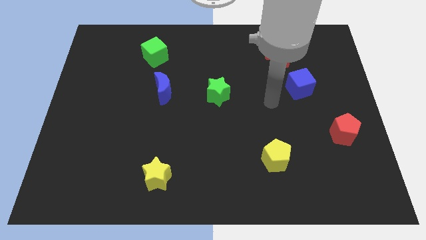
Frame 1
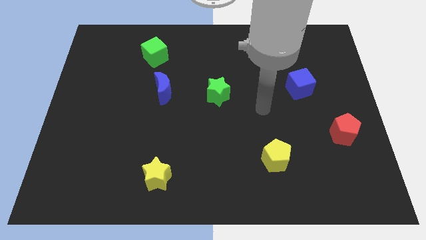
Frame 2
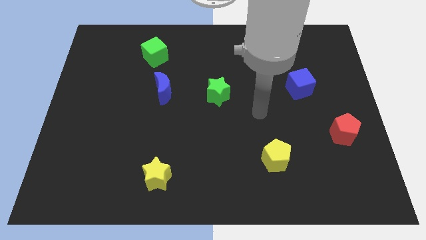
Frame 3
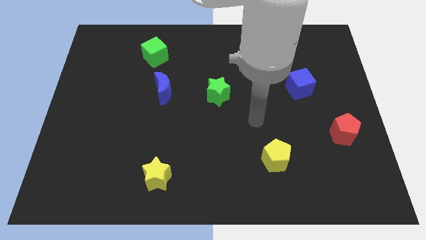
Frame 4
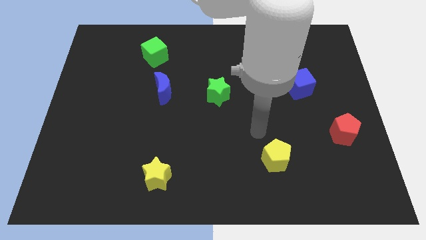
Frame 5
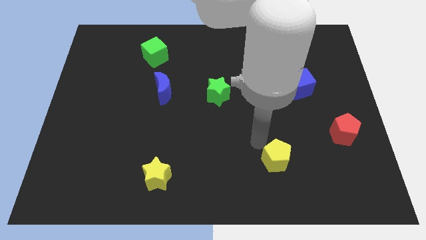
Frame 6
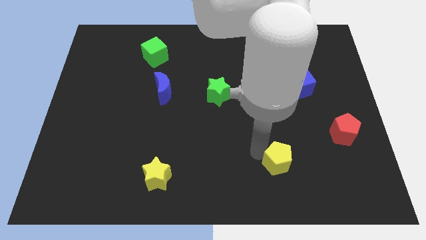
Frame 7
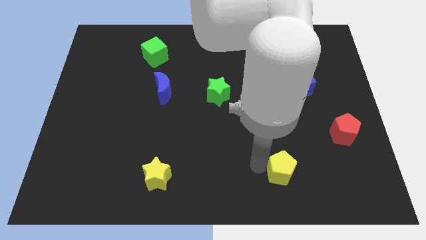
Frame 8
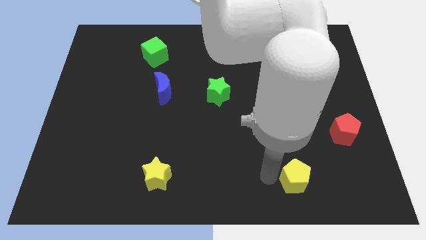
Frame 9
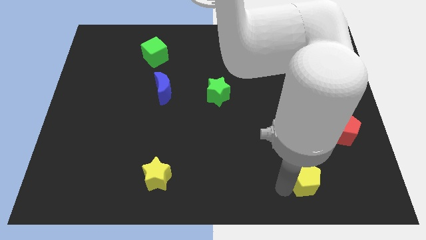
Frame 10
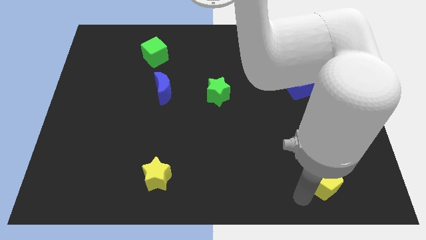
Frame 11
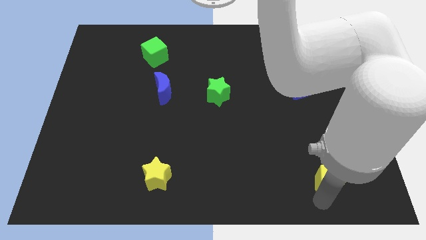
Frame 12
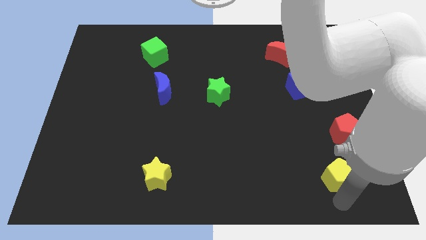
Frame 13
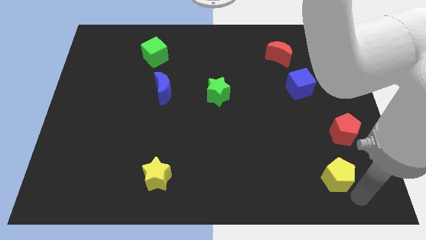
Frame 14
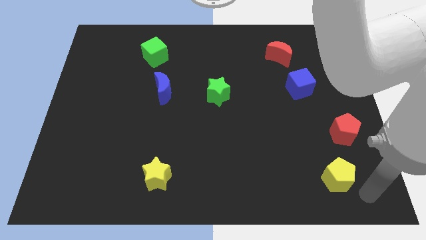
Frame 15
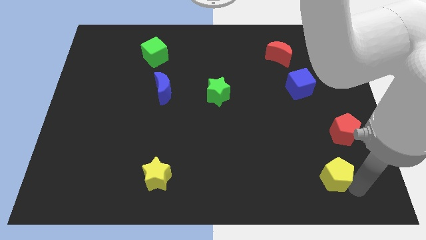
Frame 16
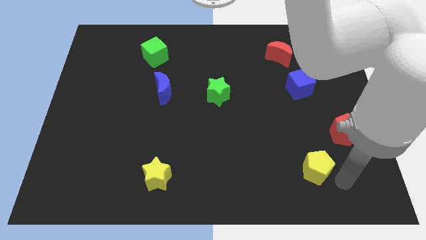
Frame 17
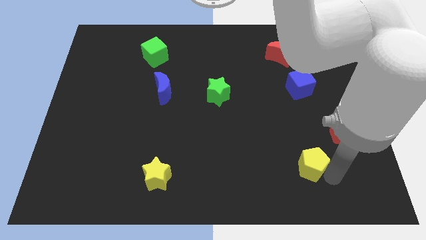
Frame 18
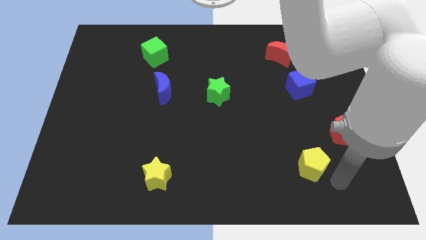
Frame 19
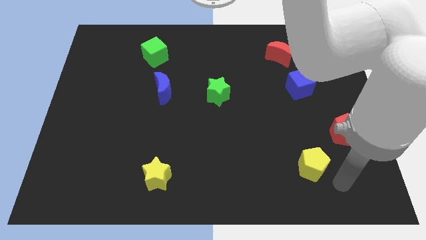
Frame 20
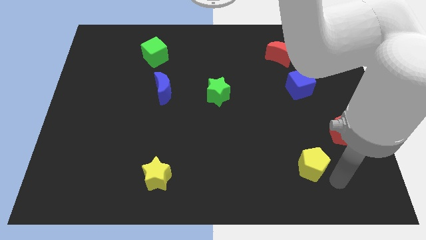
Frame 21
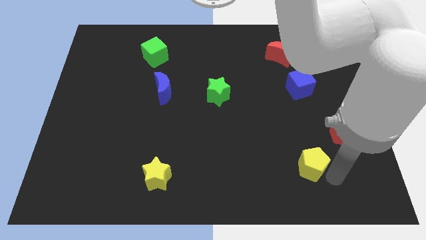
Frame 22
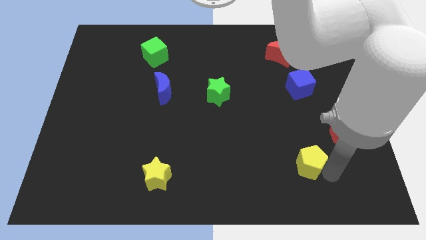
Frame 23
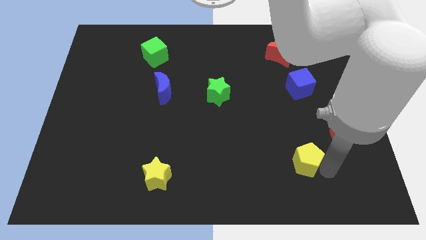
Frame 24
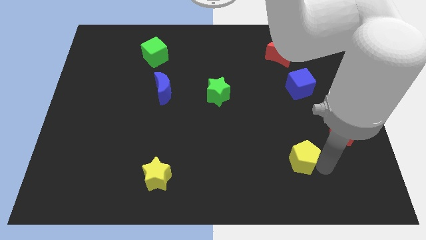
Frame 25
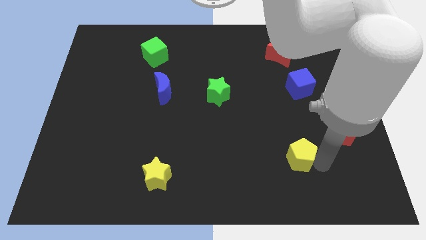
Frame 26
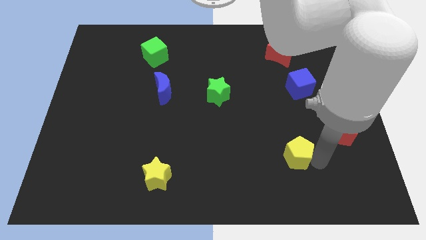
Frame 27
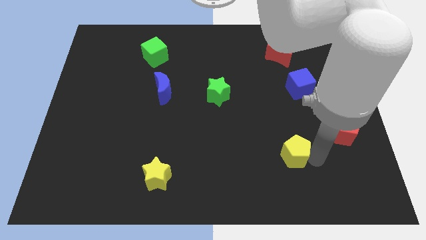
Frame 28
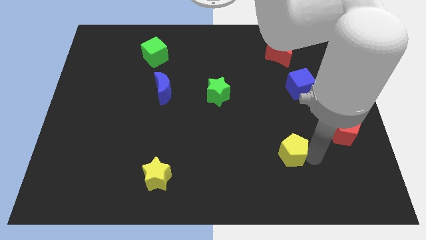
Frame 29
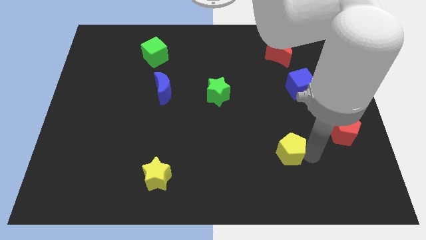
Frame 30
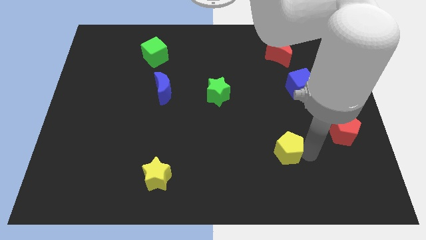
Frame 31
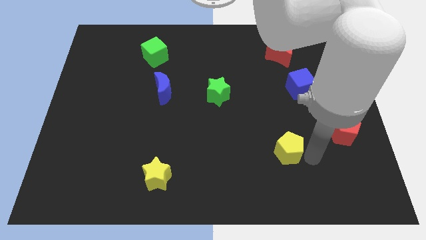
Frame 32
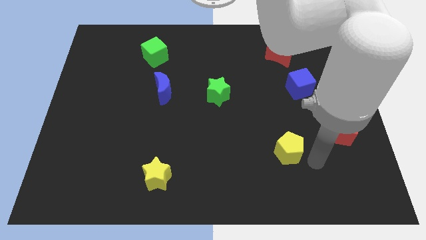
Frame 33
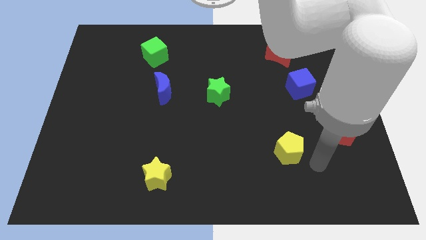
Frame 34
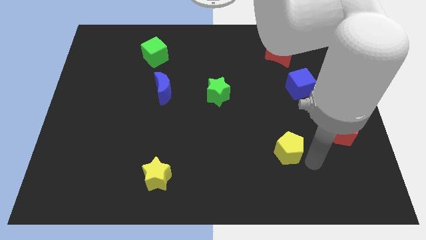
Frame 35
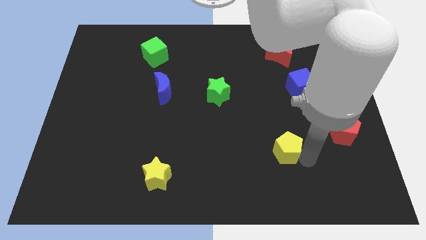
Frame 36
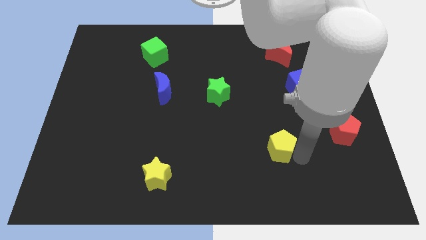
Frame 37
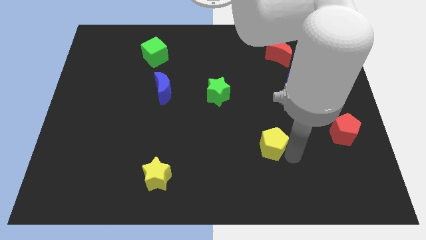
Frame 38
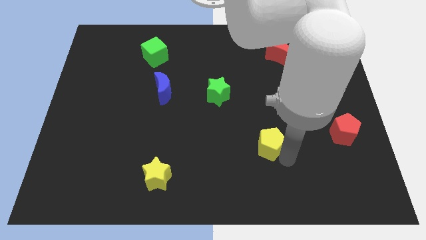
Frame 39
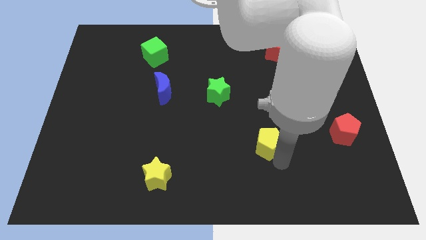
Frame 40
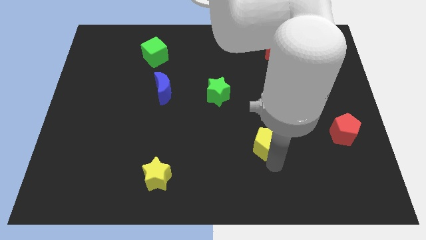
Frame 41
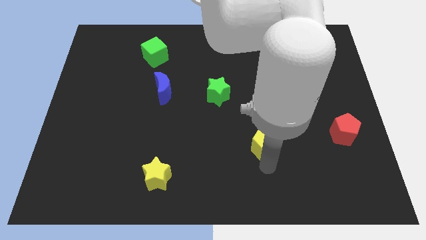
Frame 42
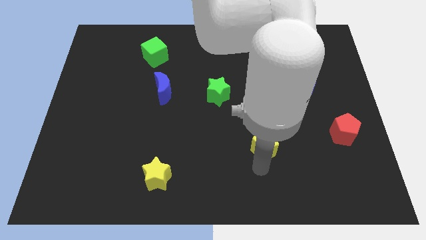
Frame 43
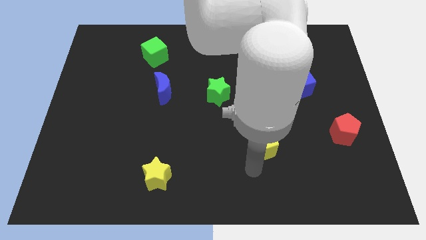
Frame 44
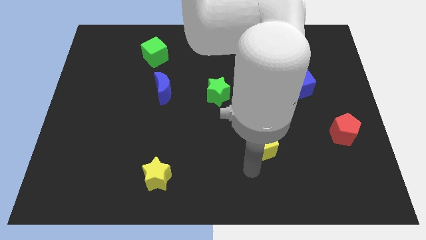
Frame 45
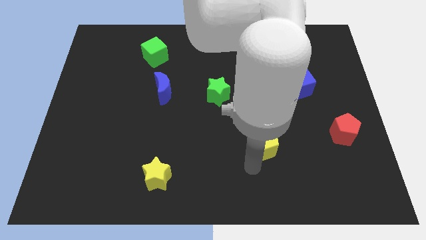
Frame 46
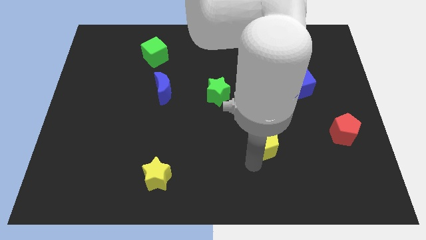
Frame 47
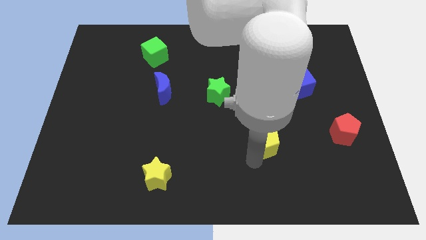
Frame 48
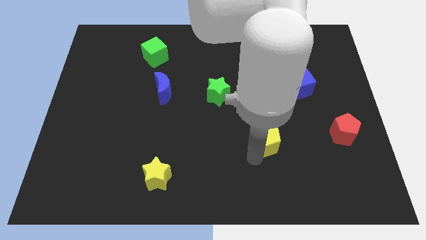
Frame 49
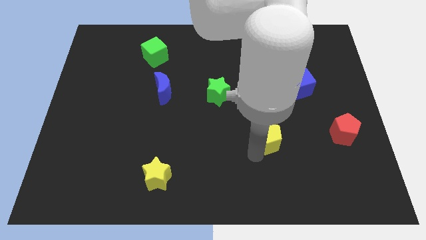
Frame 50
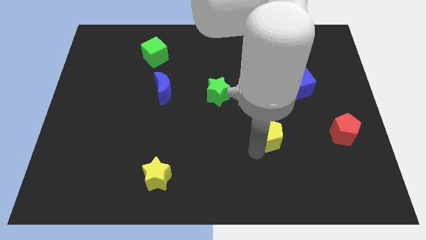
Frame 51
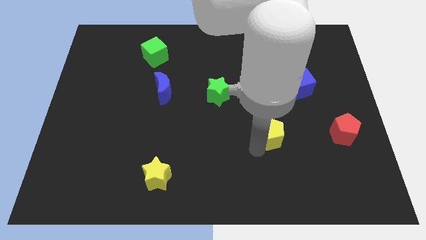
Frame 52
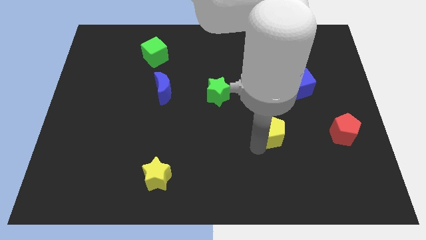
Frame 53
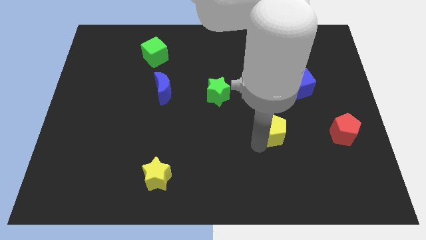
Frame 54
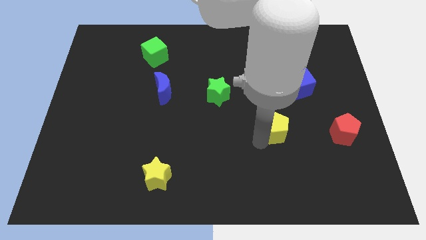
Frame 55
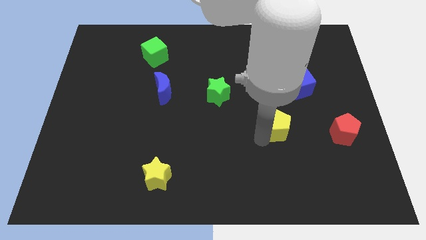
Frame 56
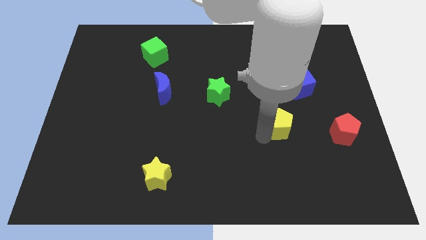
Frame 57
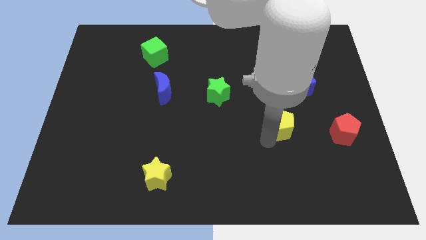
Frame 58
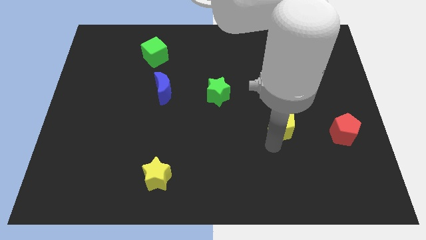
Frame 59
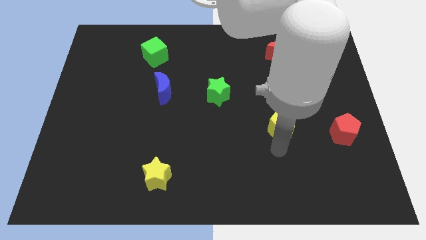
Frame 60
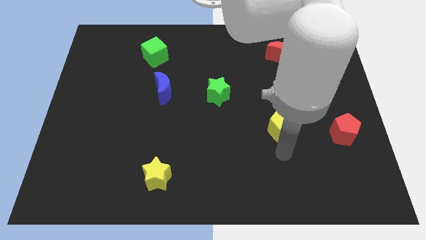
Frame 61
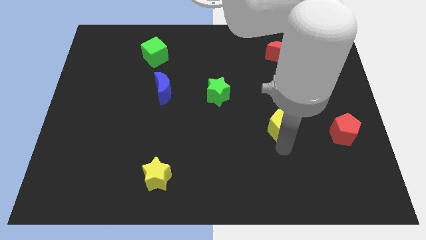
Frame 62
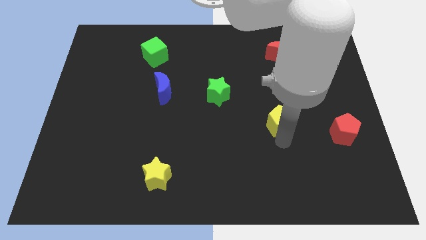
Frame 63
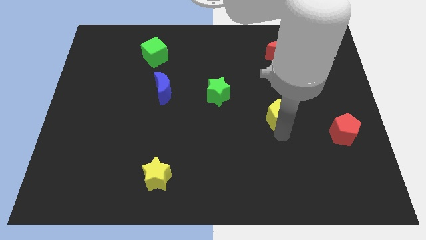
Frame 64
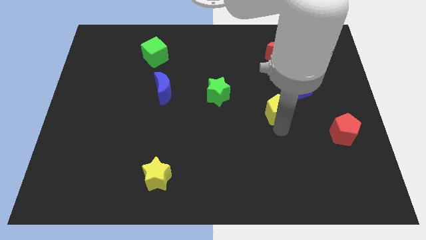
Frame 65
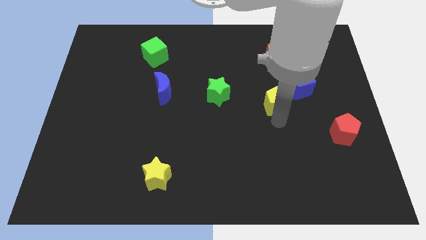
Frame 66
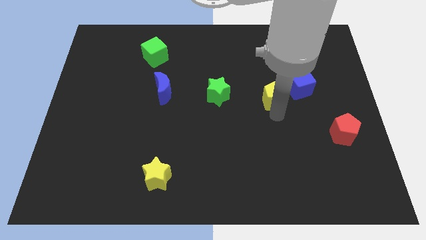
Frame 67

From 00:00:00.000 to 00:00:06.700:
move the yellow pentagon to the bottom of the red moon

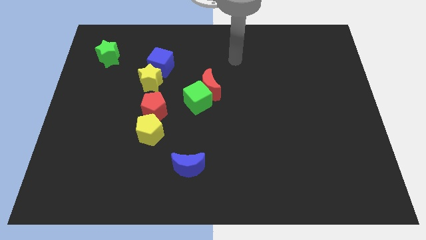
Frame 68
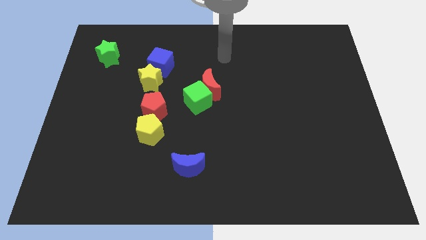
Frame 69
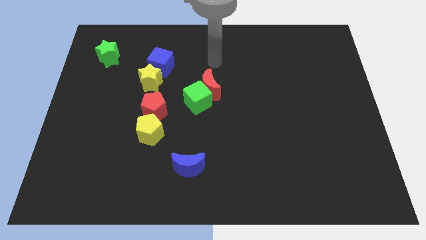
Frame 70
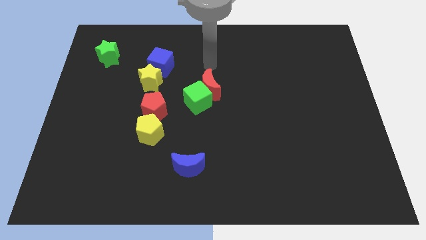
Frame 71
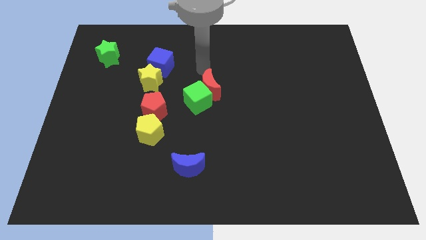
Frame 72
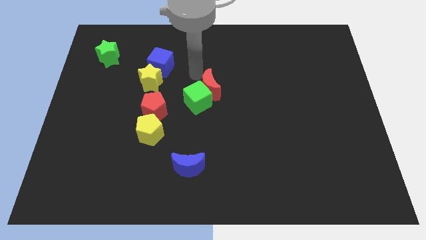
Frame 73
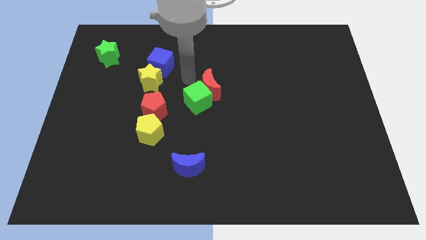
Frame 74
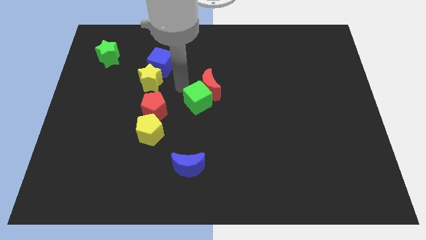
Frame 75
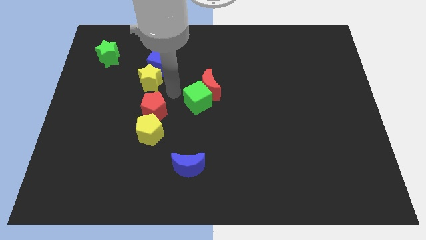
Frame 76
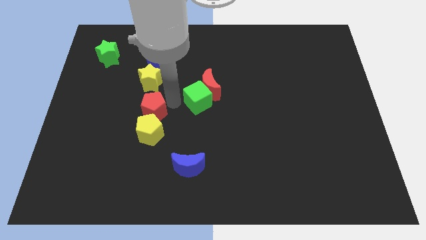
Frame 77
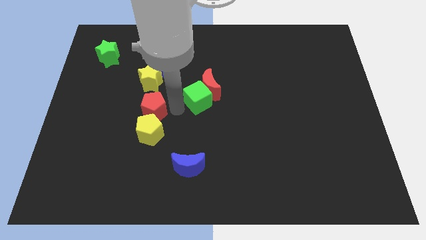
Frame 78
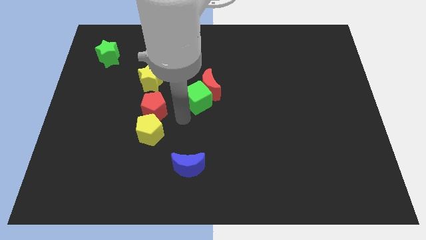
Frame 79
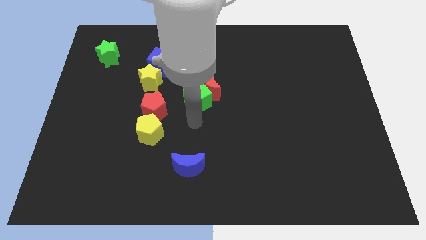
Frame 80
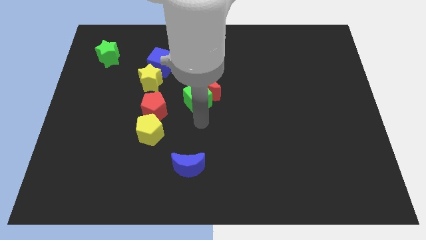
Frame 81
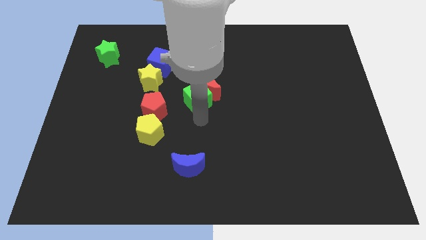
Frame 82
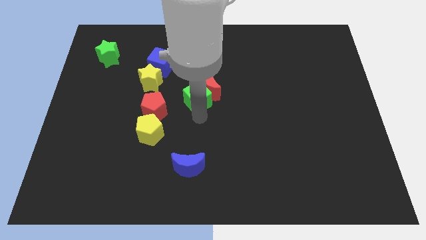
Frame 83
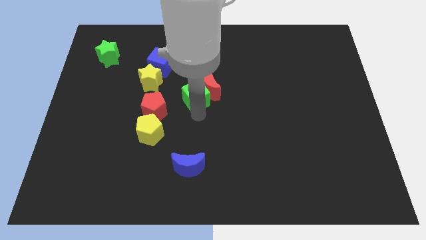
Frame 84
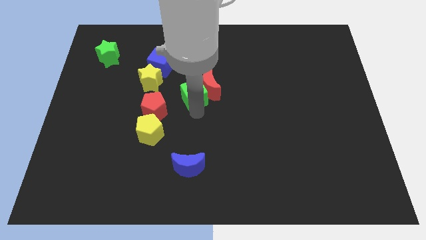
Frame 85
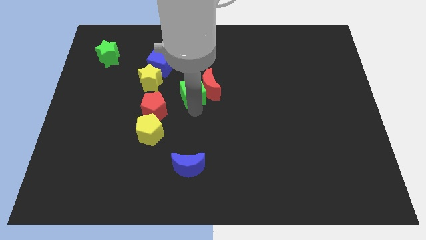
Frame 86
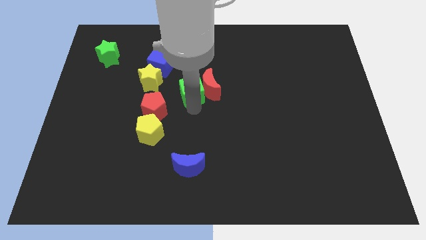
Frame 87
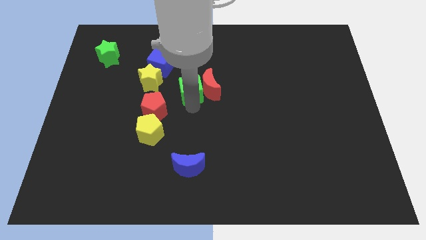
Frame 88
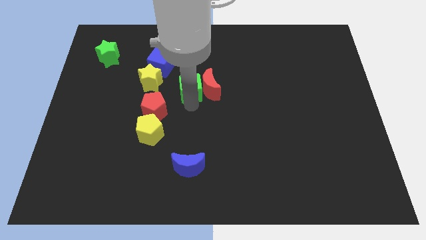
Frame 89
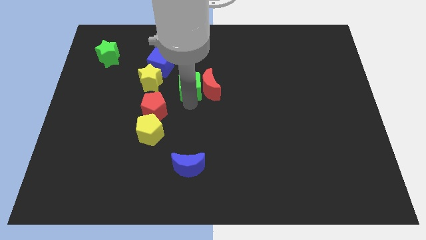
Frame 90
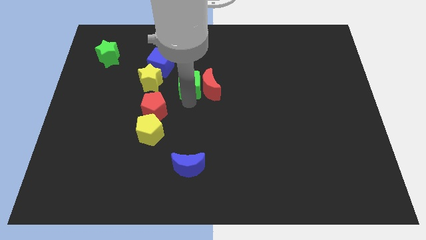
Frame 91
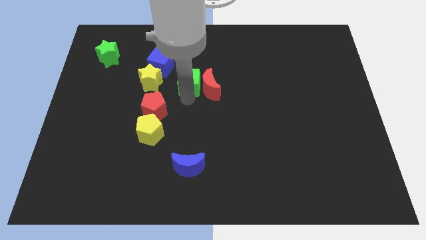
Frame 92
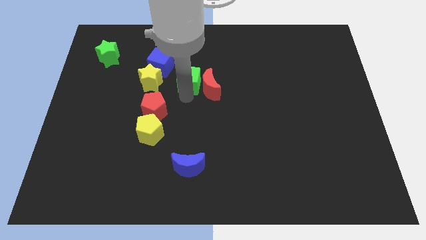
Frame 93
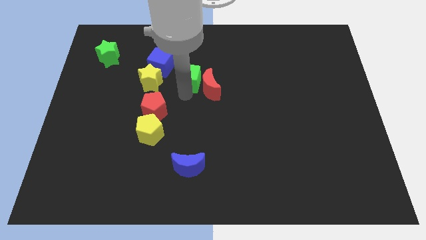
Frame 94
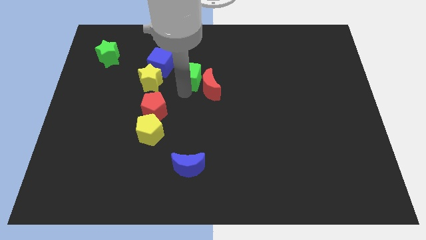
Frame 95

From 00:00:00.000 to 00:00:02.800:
slide the green cube to the right side of the blue cube
